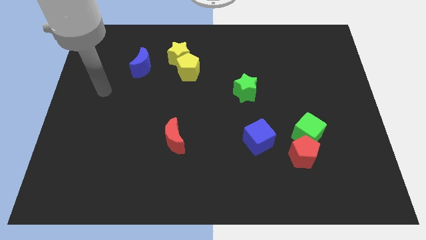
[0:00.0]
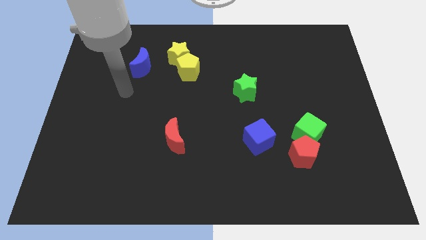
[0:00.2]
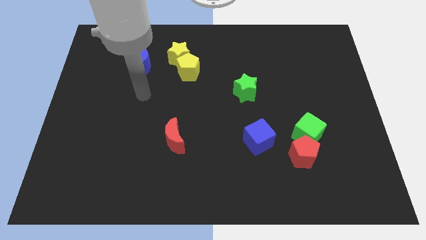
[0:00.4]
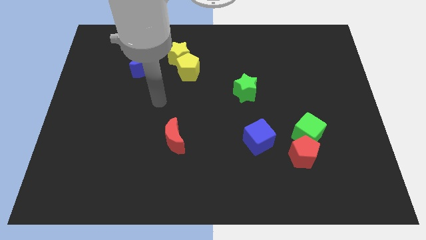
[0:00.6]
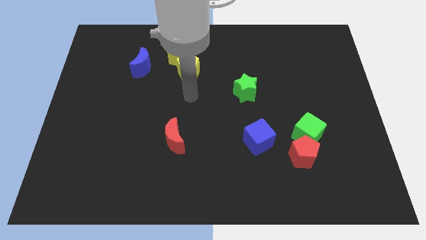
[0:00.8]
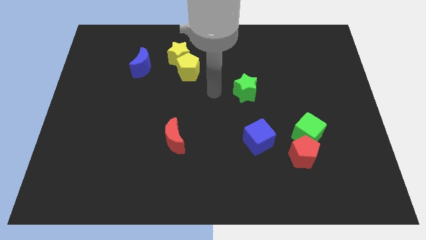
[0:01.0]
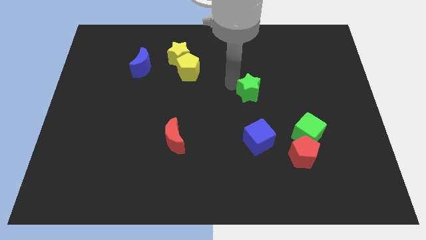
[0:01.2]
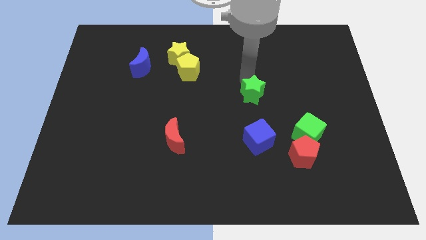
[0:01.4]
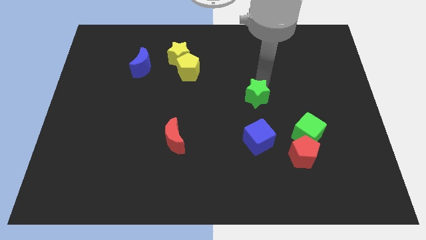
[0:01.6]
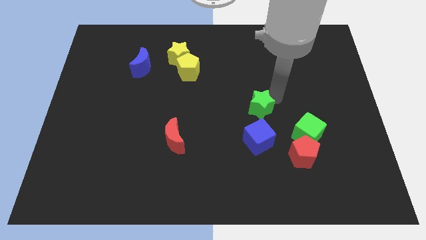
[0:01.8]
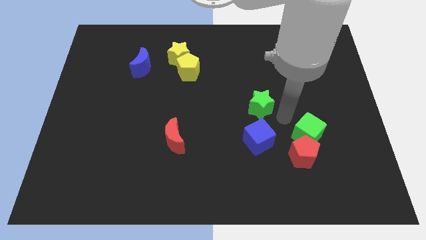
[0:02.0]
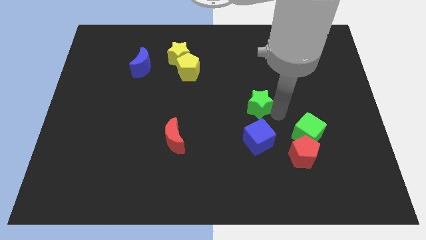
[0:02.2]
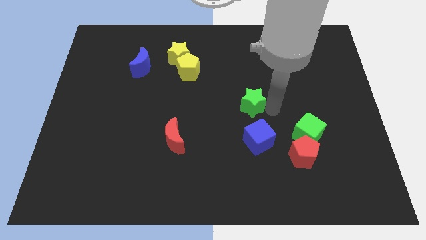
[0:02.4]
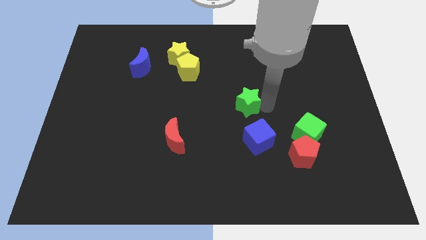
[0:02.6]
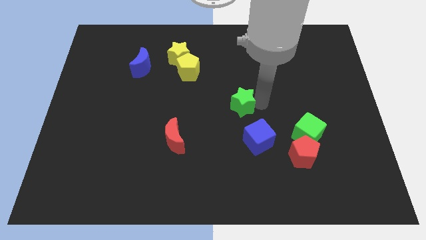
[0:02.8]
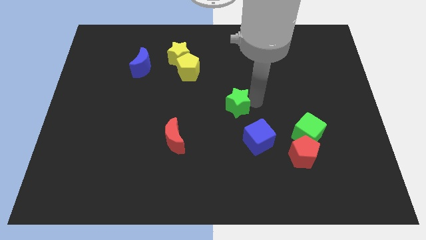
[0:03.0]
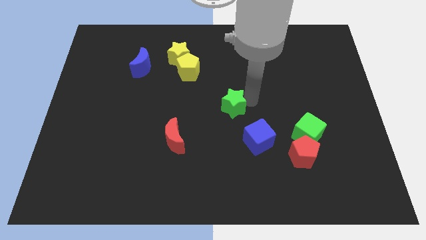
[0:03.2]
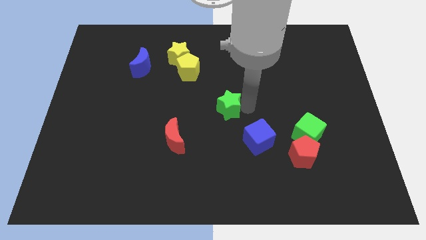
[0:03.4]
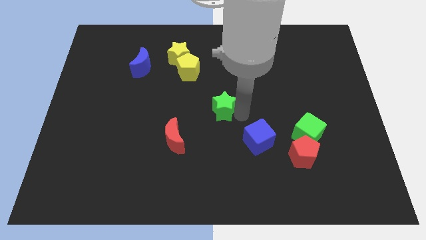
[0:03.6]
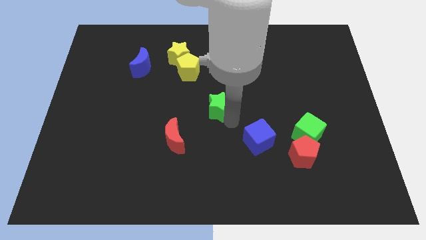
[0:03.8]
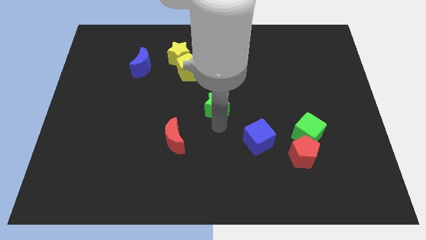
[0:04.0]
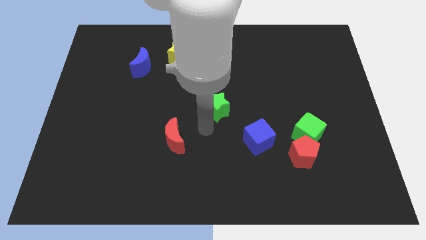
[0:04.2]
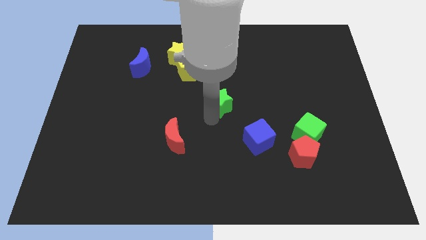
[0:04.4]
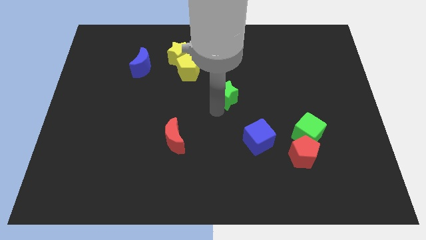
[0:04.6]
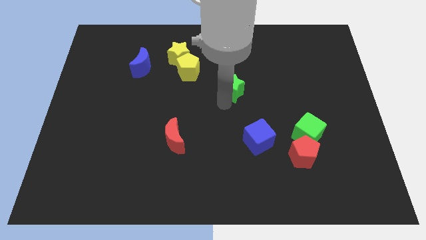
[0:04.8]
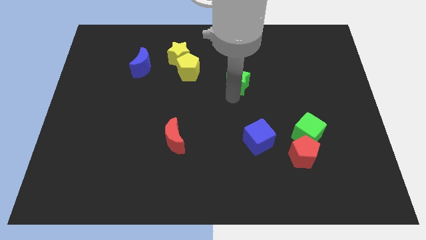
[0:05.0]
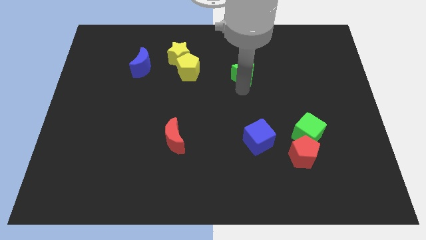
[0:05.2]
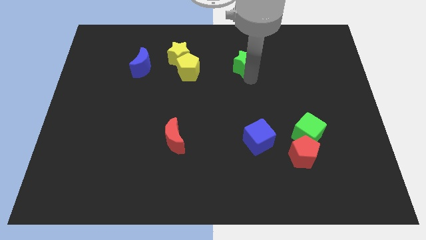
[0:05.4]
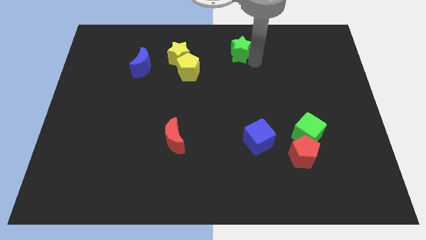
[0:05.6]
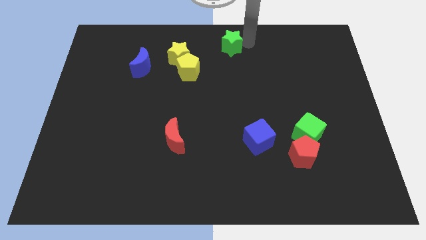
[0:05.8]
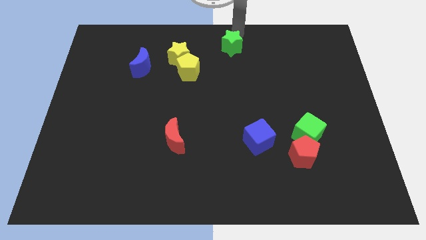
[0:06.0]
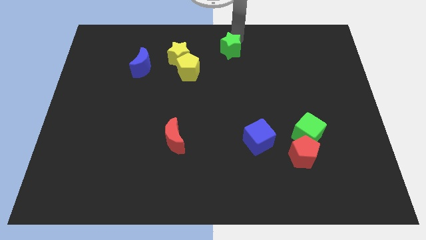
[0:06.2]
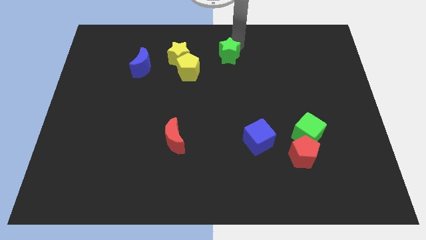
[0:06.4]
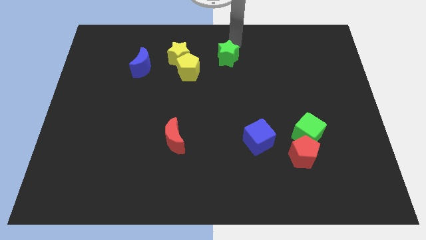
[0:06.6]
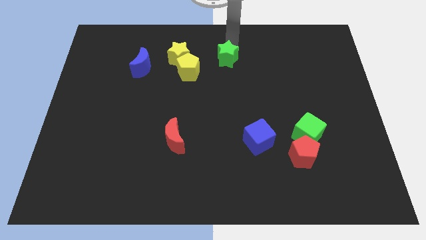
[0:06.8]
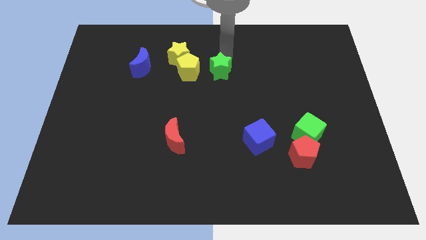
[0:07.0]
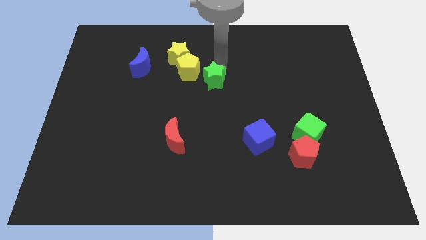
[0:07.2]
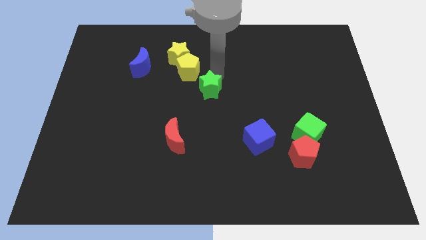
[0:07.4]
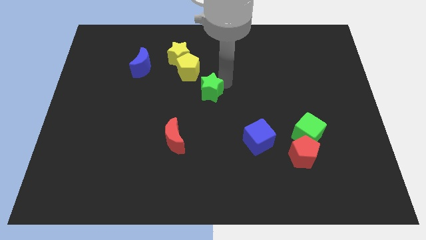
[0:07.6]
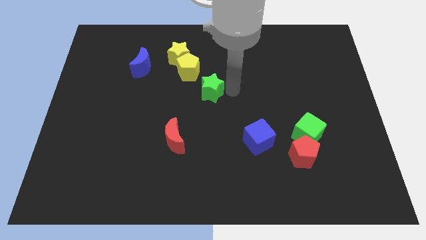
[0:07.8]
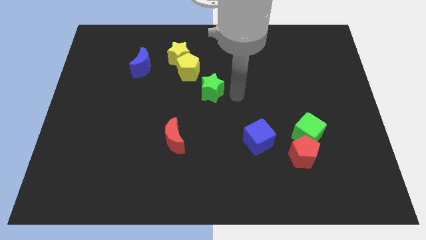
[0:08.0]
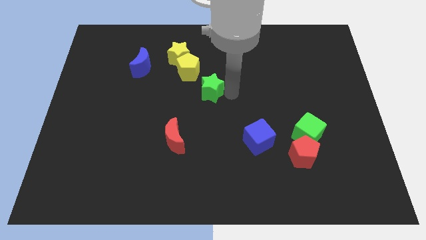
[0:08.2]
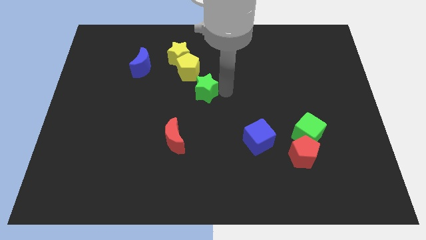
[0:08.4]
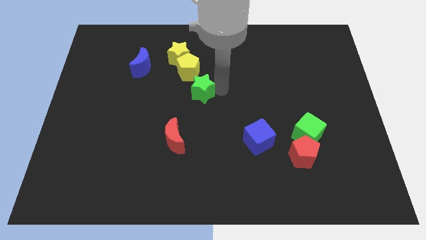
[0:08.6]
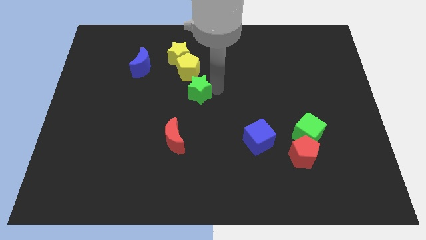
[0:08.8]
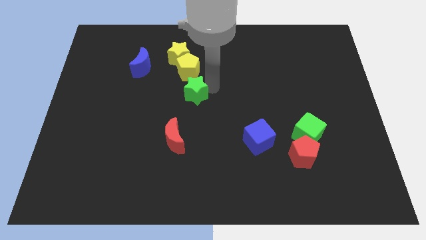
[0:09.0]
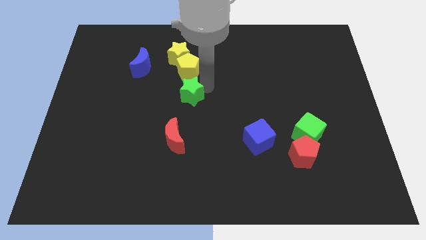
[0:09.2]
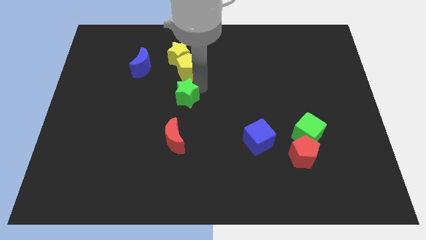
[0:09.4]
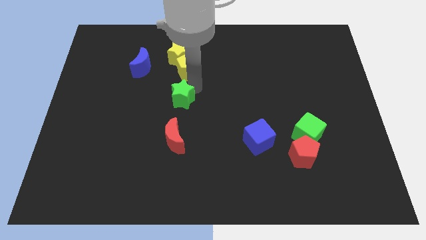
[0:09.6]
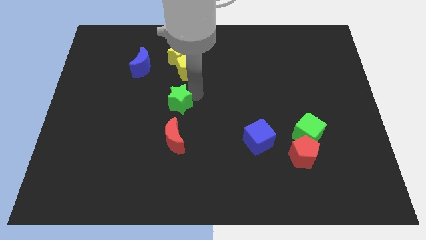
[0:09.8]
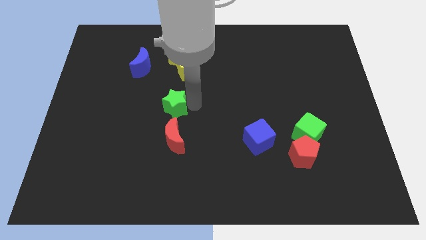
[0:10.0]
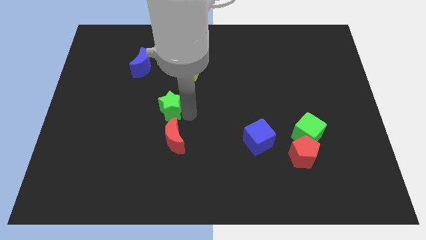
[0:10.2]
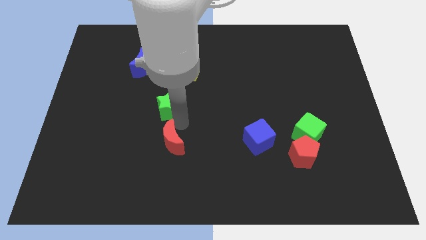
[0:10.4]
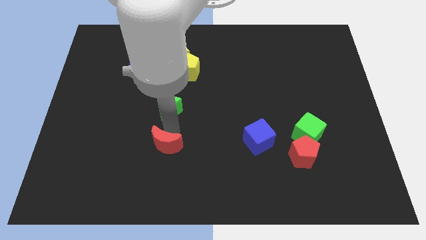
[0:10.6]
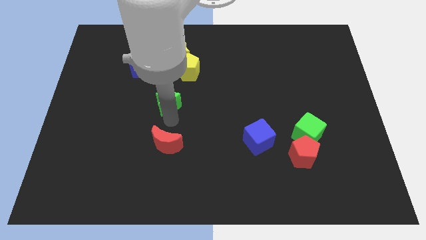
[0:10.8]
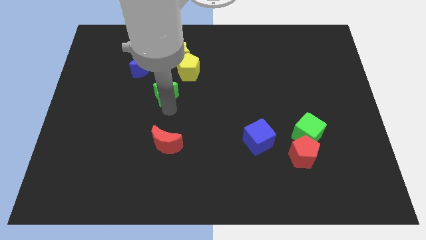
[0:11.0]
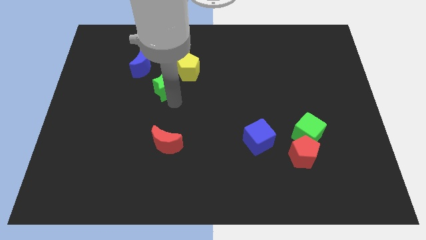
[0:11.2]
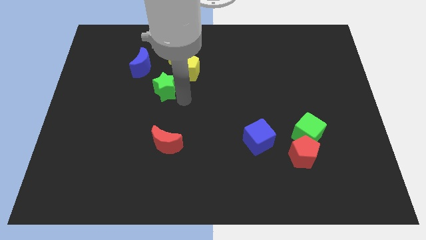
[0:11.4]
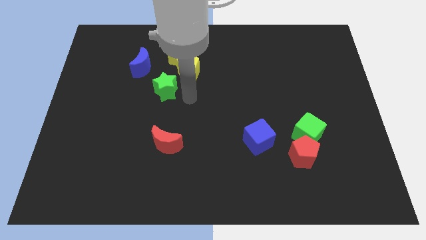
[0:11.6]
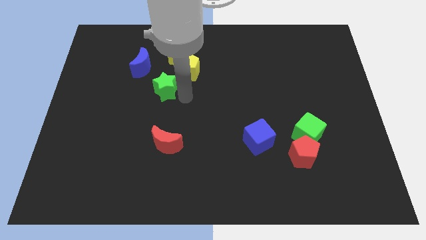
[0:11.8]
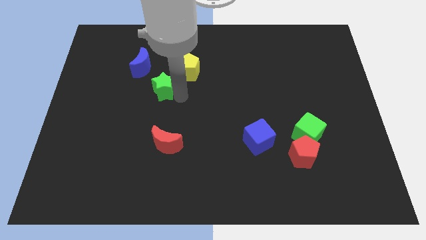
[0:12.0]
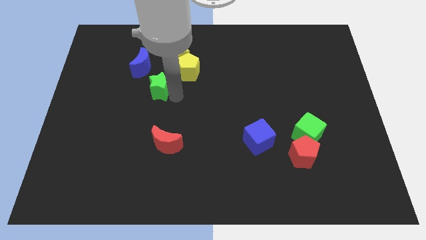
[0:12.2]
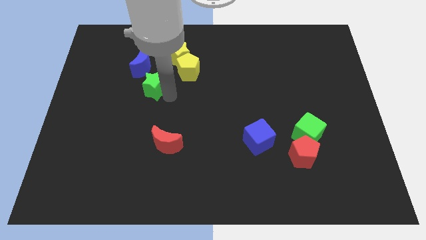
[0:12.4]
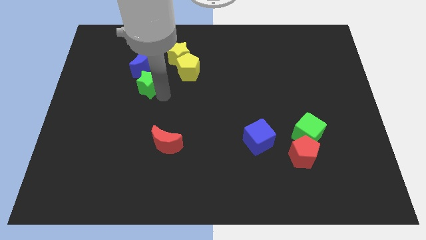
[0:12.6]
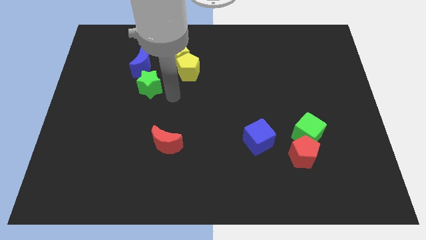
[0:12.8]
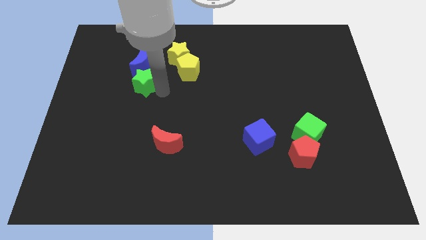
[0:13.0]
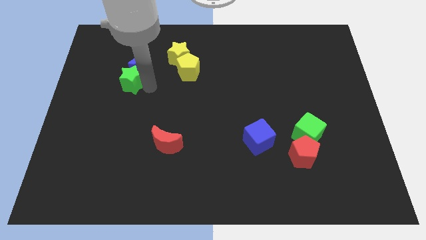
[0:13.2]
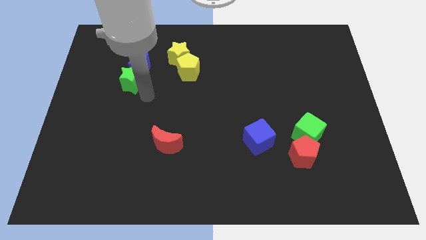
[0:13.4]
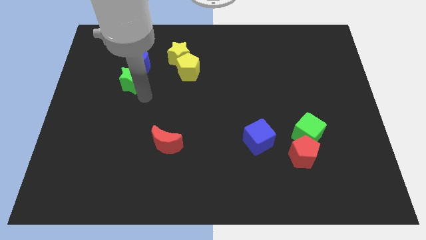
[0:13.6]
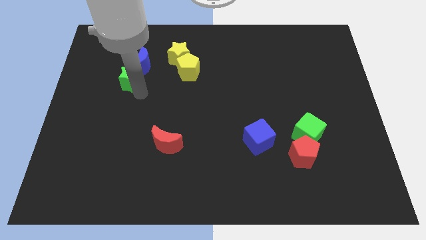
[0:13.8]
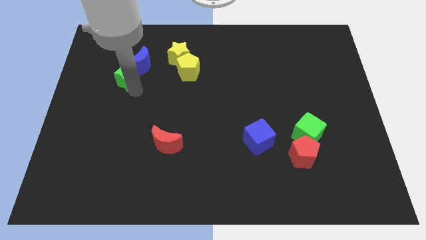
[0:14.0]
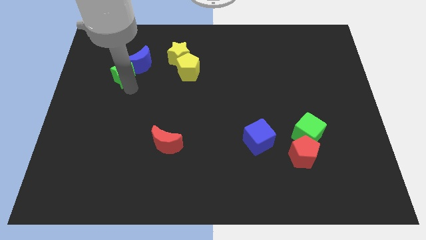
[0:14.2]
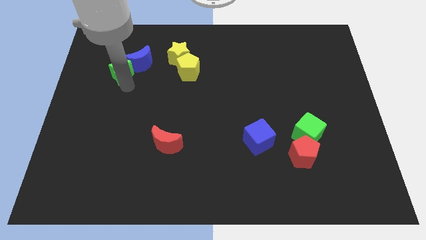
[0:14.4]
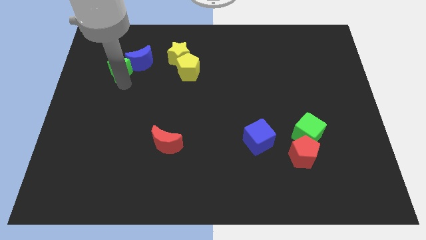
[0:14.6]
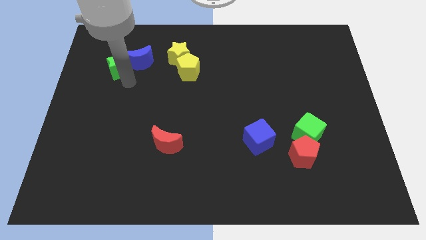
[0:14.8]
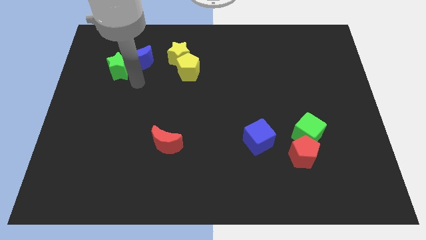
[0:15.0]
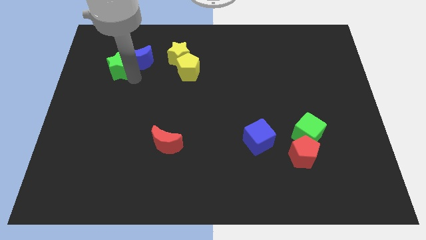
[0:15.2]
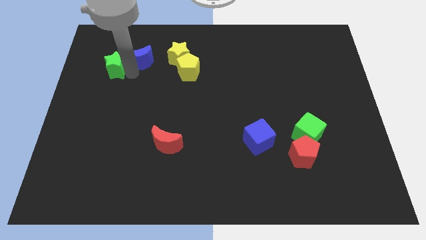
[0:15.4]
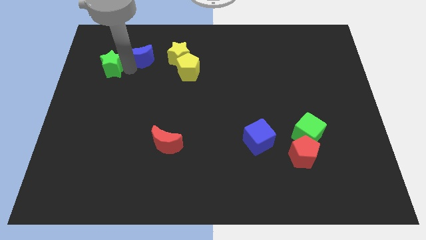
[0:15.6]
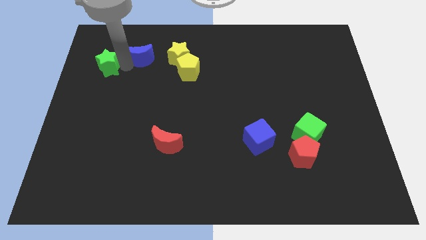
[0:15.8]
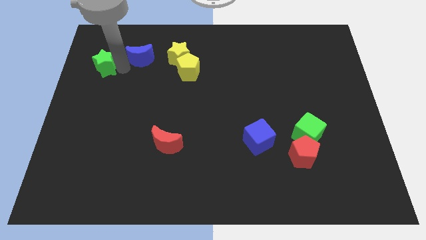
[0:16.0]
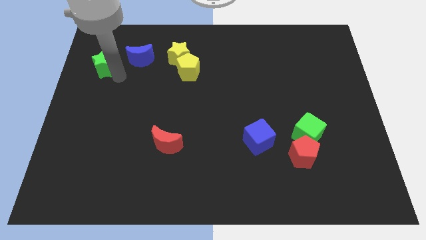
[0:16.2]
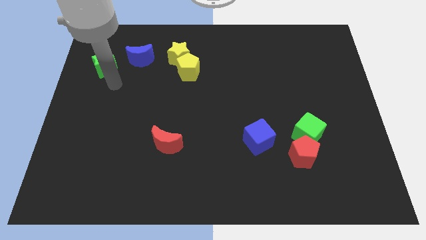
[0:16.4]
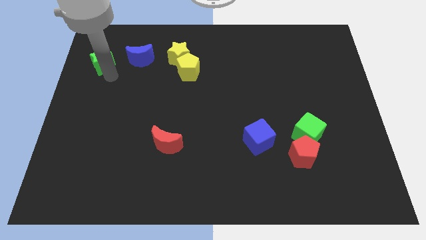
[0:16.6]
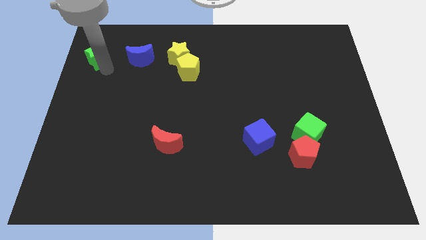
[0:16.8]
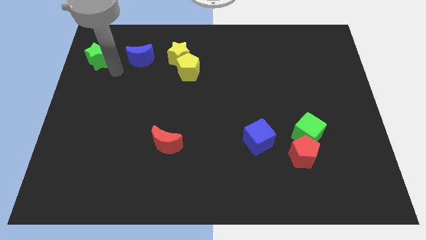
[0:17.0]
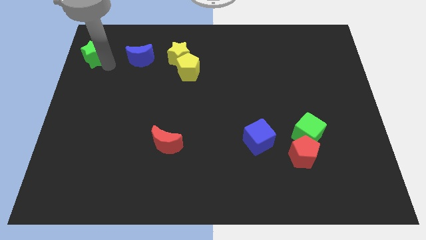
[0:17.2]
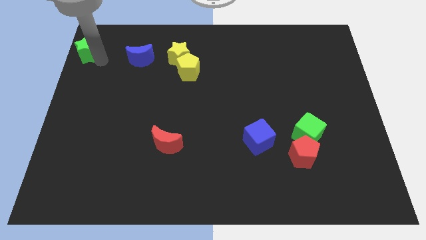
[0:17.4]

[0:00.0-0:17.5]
push the green star to the top left
